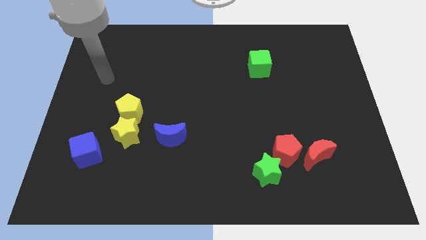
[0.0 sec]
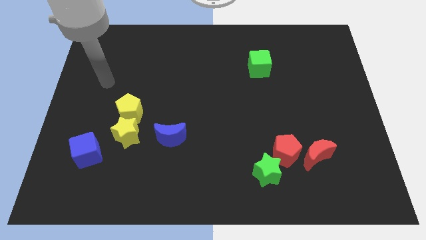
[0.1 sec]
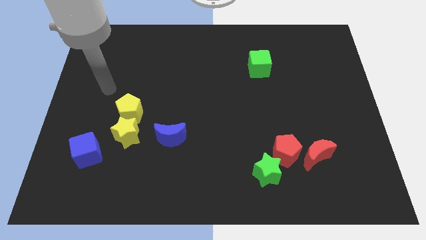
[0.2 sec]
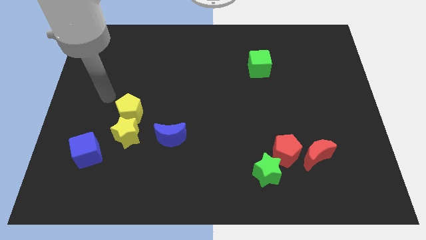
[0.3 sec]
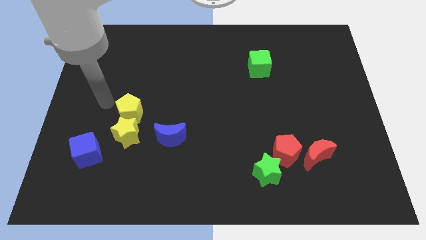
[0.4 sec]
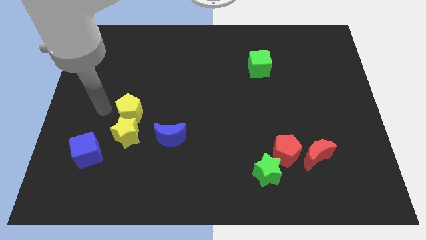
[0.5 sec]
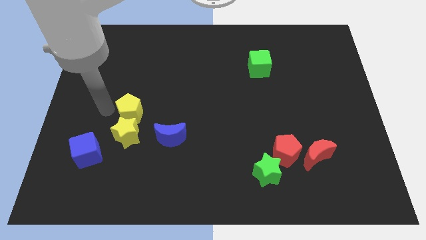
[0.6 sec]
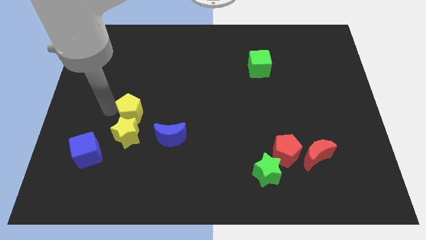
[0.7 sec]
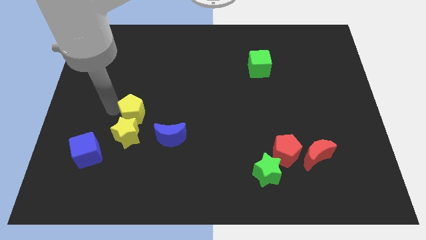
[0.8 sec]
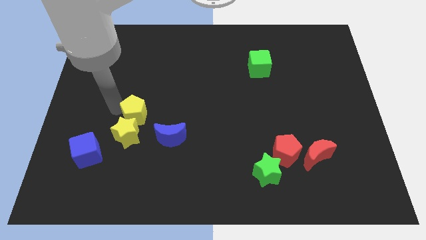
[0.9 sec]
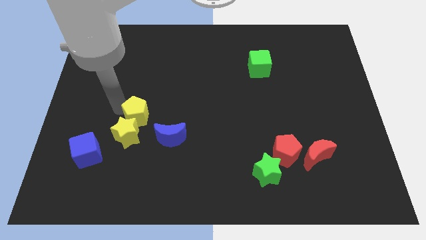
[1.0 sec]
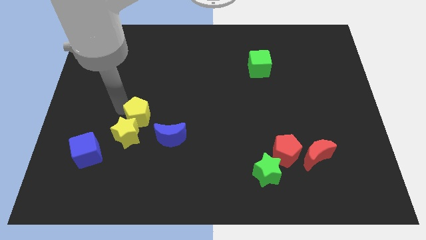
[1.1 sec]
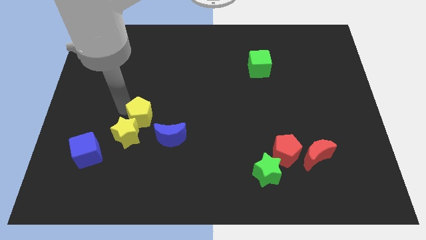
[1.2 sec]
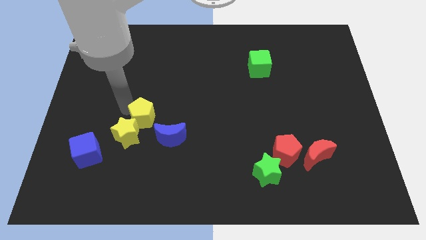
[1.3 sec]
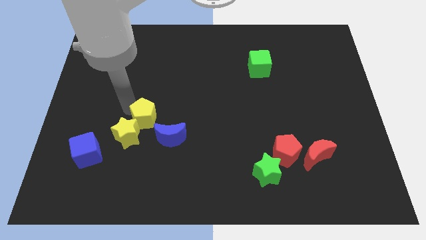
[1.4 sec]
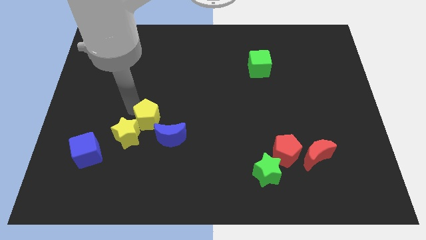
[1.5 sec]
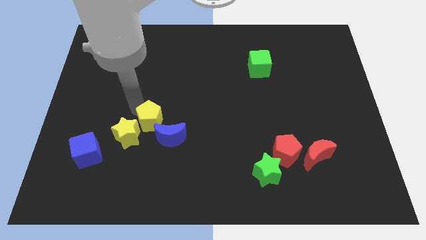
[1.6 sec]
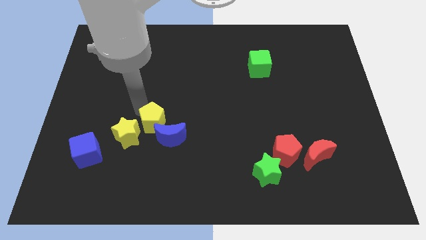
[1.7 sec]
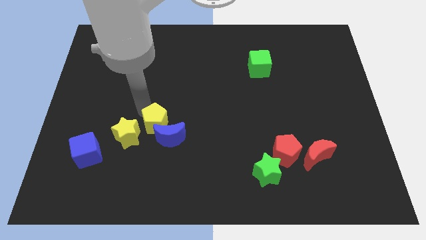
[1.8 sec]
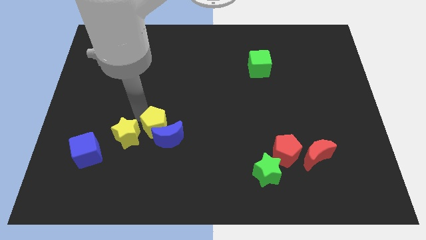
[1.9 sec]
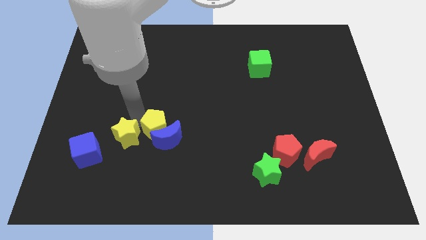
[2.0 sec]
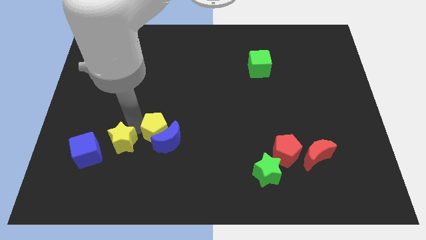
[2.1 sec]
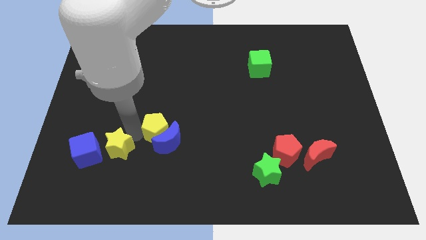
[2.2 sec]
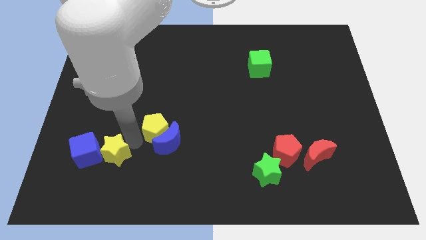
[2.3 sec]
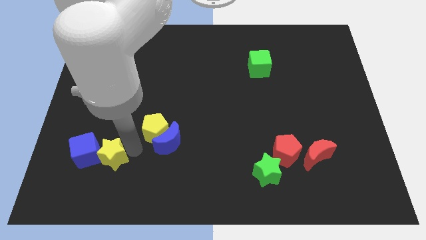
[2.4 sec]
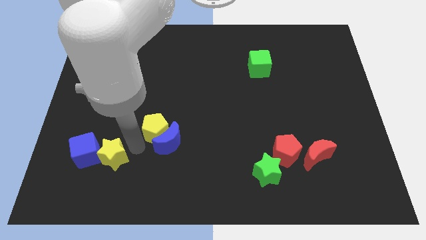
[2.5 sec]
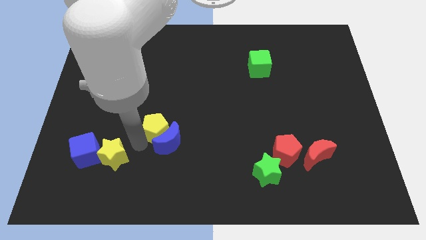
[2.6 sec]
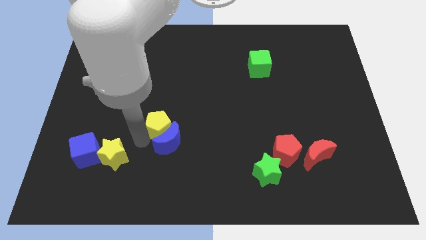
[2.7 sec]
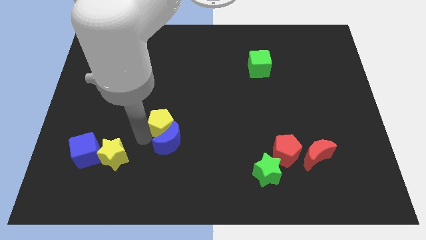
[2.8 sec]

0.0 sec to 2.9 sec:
slide the yellow pentagon slightly right

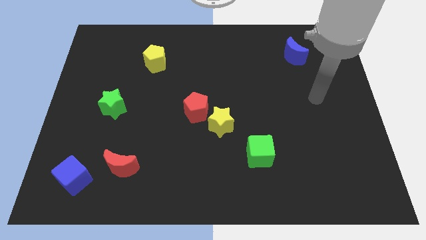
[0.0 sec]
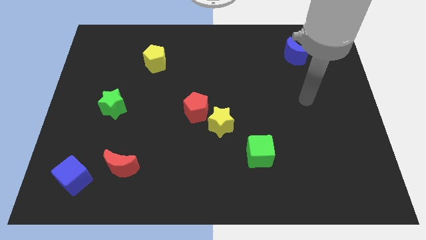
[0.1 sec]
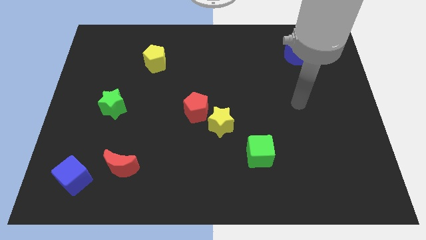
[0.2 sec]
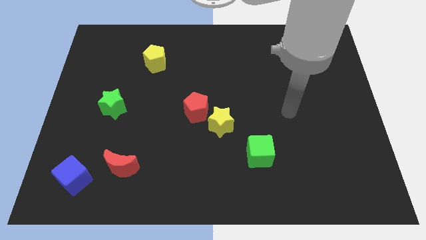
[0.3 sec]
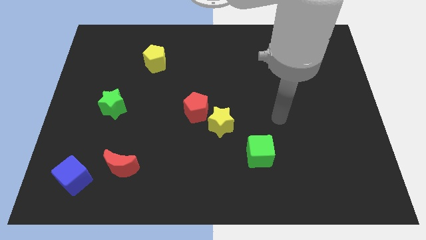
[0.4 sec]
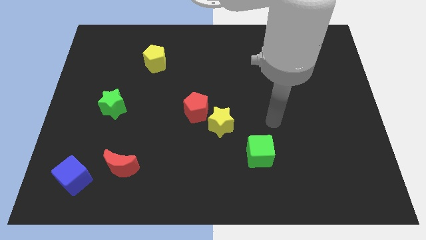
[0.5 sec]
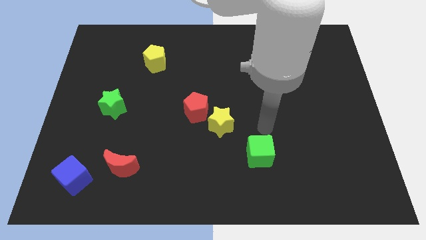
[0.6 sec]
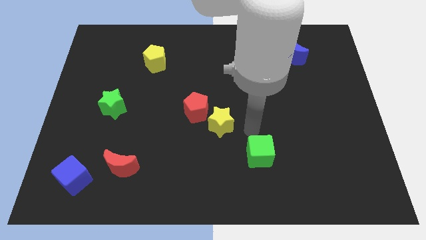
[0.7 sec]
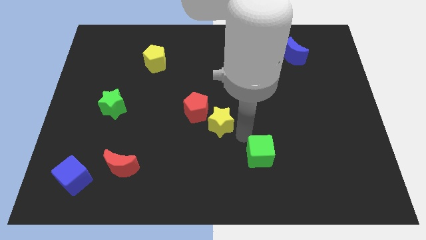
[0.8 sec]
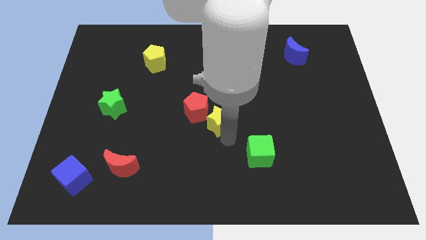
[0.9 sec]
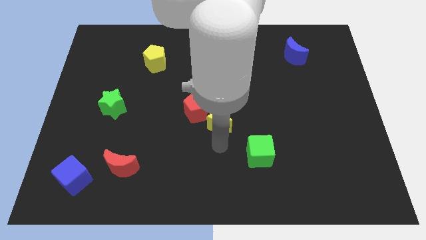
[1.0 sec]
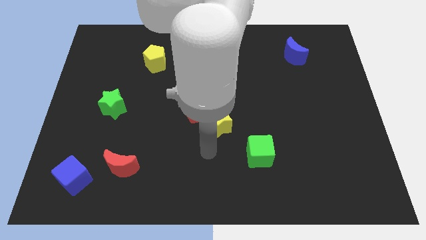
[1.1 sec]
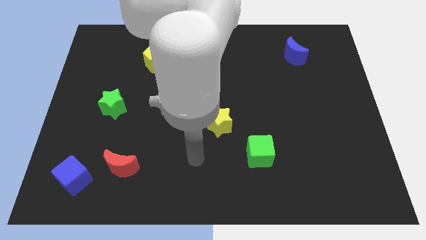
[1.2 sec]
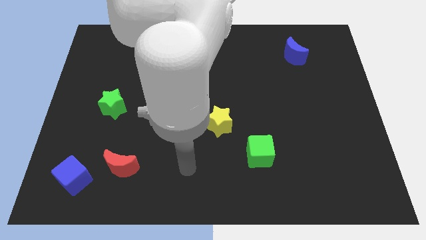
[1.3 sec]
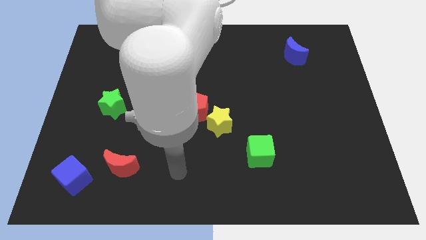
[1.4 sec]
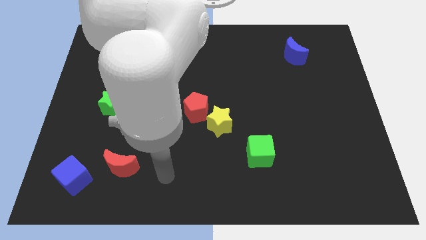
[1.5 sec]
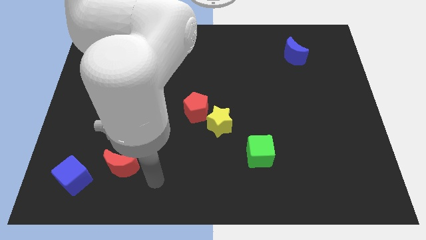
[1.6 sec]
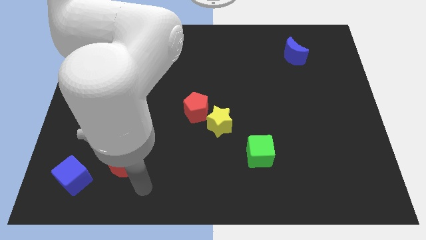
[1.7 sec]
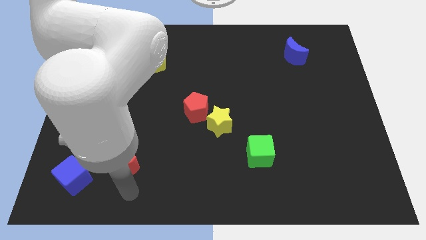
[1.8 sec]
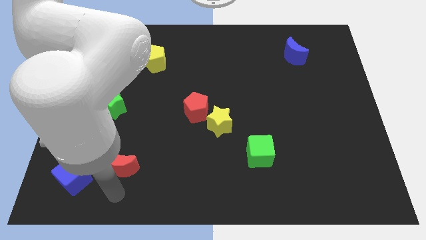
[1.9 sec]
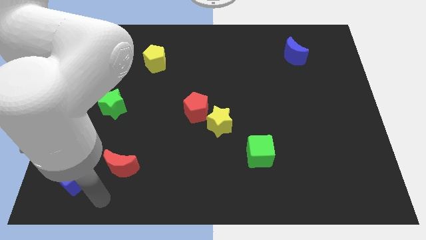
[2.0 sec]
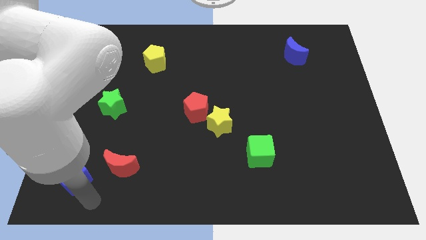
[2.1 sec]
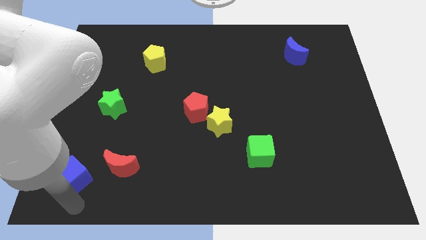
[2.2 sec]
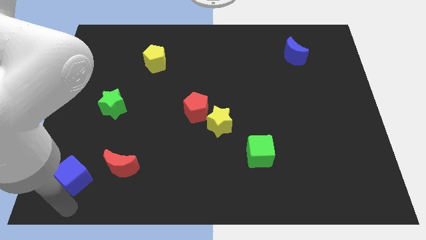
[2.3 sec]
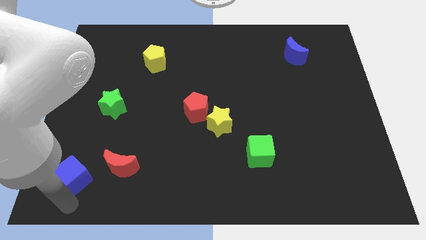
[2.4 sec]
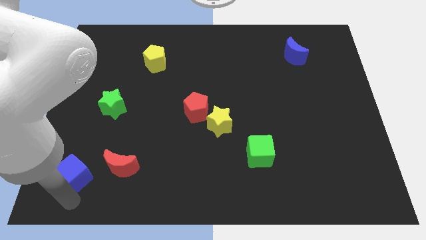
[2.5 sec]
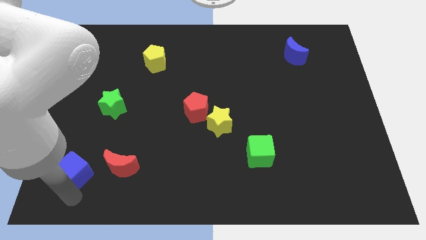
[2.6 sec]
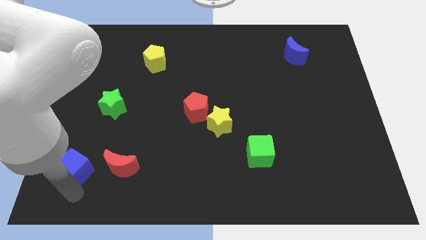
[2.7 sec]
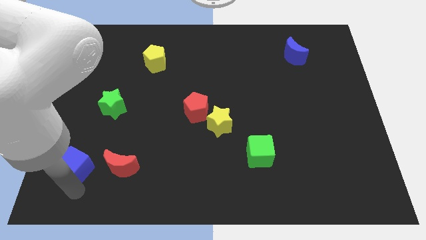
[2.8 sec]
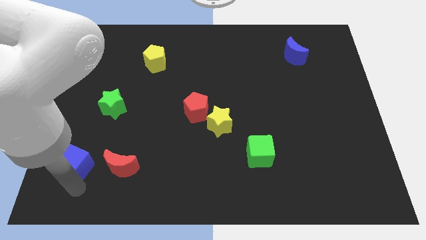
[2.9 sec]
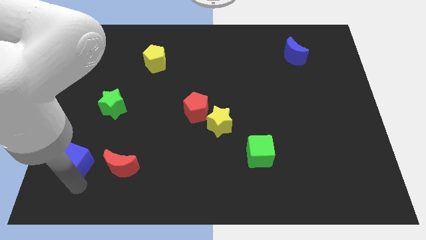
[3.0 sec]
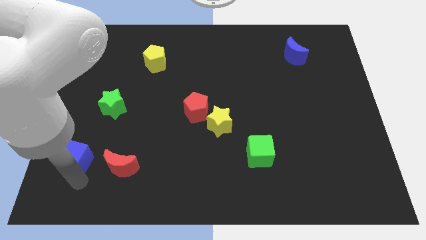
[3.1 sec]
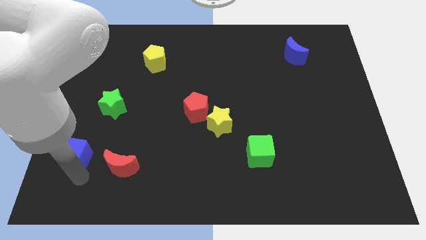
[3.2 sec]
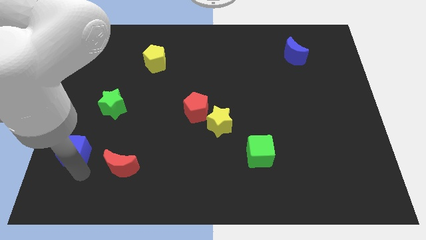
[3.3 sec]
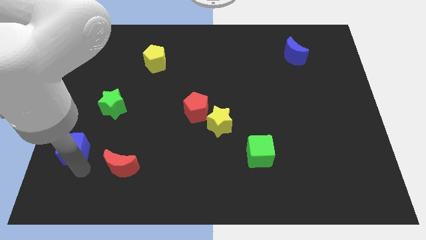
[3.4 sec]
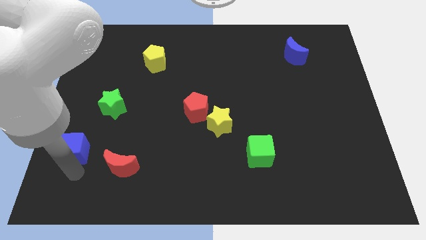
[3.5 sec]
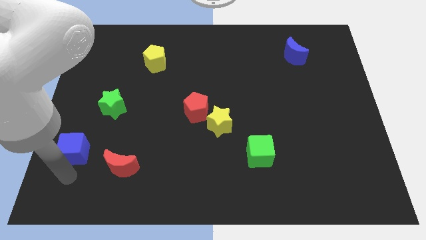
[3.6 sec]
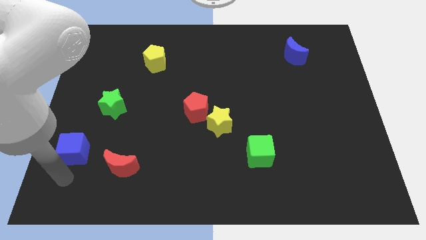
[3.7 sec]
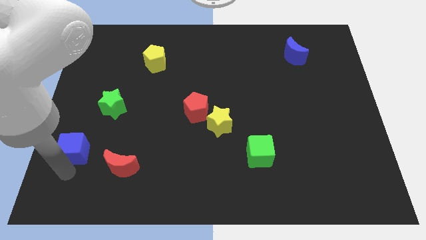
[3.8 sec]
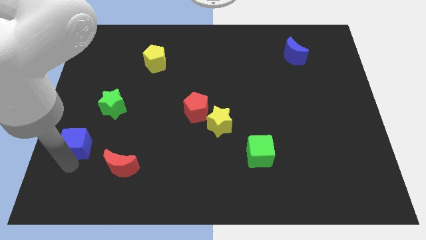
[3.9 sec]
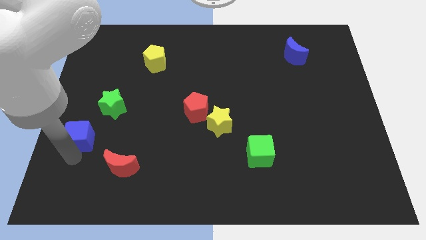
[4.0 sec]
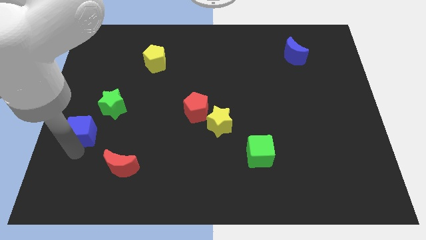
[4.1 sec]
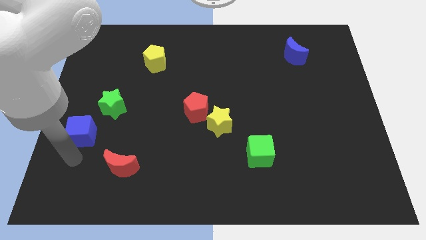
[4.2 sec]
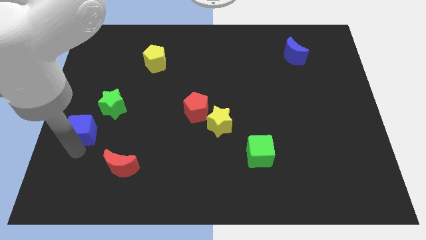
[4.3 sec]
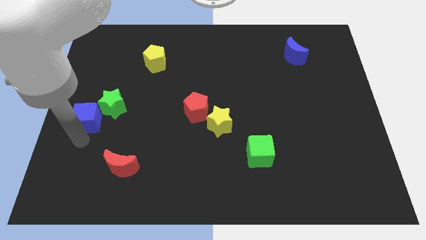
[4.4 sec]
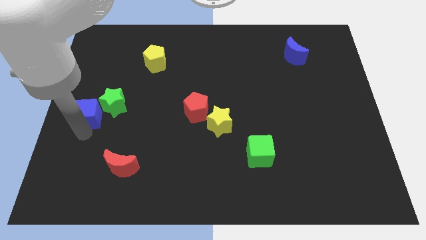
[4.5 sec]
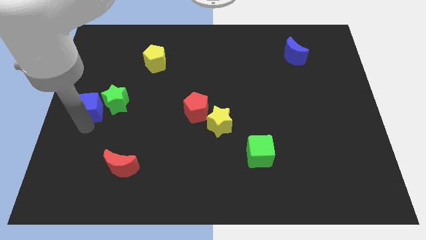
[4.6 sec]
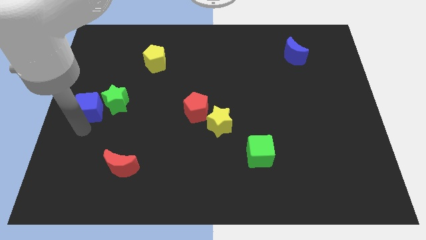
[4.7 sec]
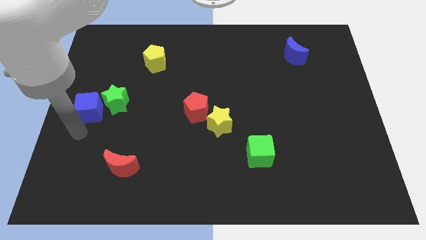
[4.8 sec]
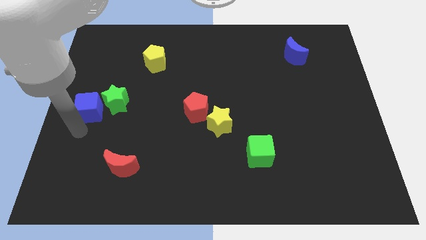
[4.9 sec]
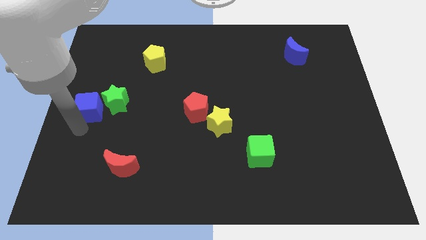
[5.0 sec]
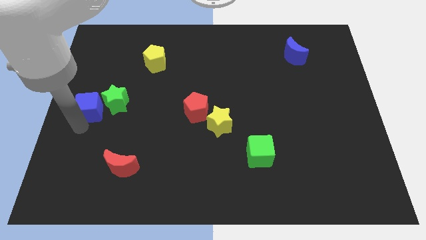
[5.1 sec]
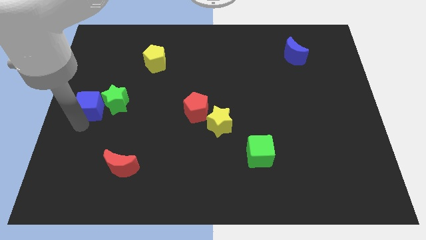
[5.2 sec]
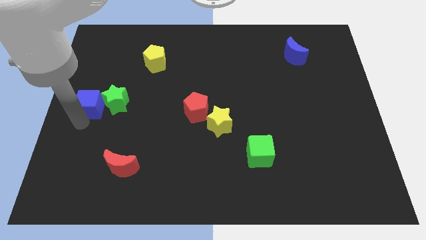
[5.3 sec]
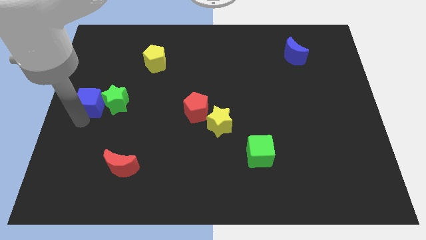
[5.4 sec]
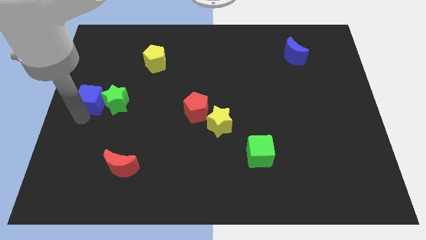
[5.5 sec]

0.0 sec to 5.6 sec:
move the blue cube up
